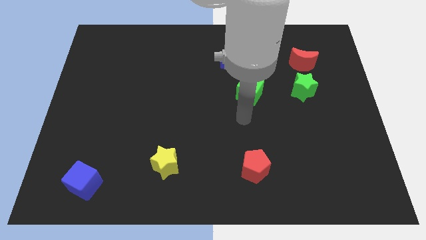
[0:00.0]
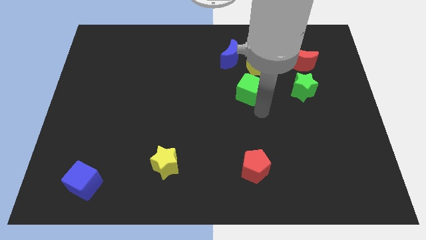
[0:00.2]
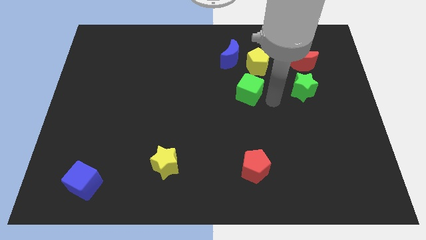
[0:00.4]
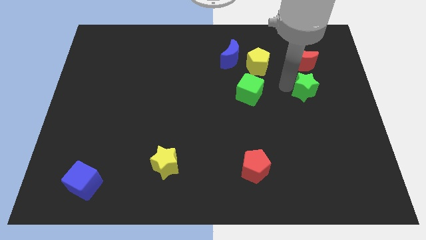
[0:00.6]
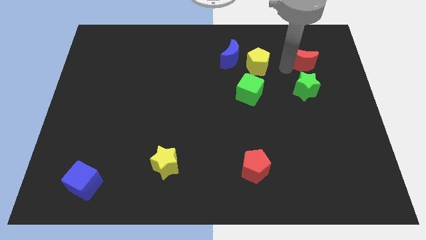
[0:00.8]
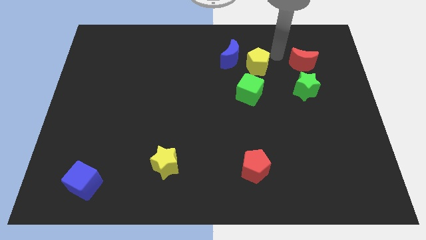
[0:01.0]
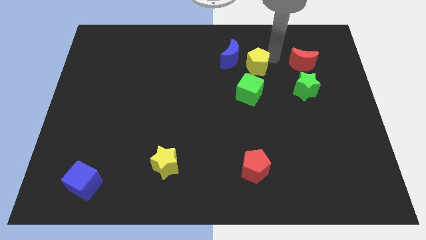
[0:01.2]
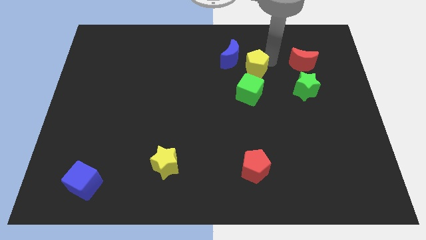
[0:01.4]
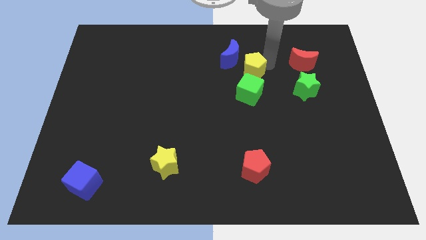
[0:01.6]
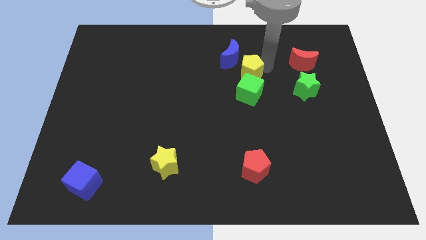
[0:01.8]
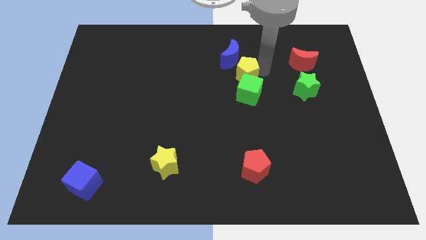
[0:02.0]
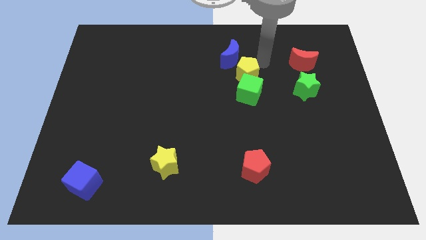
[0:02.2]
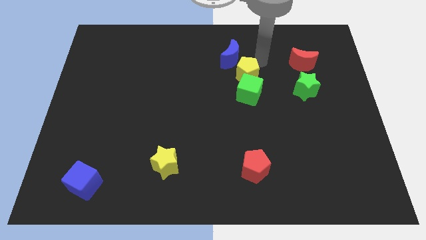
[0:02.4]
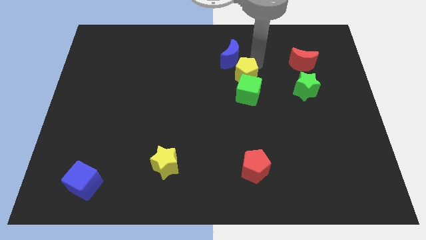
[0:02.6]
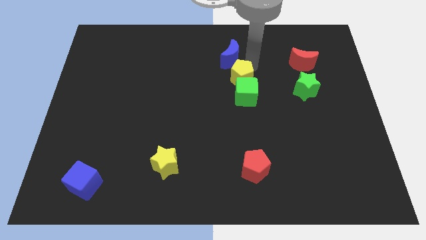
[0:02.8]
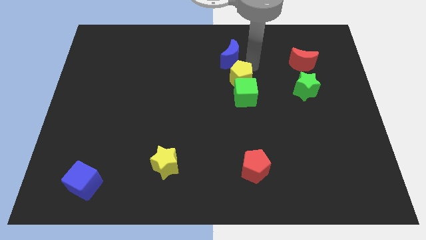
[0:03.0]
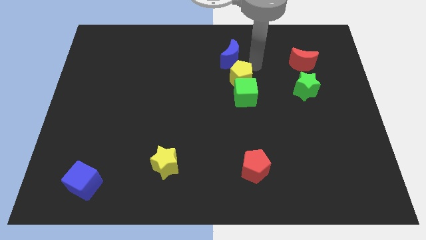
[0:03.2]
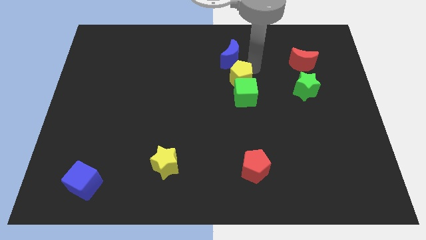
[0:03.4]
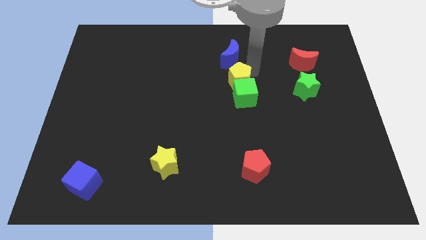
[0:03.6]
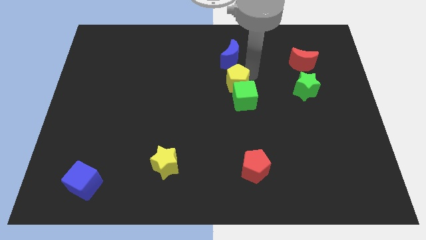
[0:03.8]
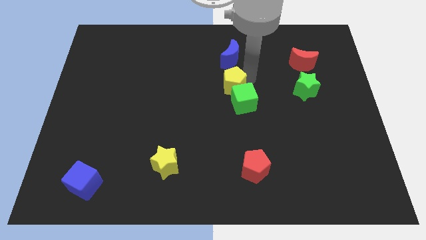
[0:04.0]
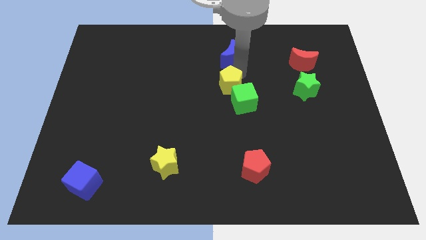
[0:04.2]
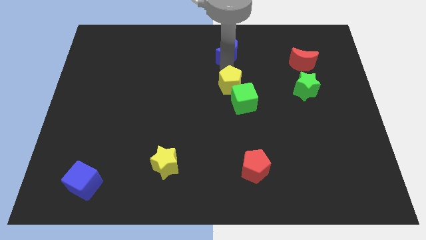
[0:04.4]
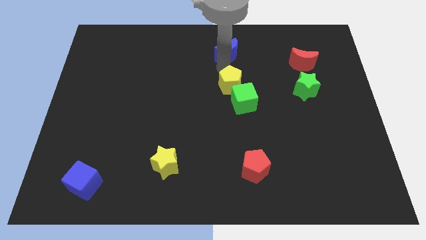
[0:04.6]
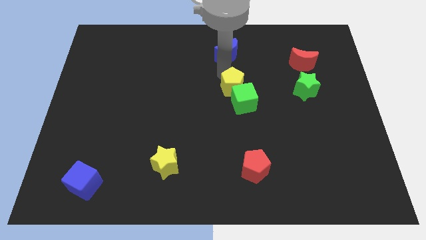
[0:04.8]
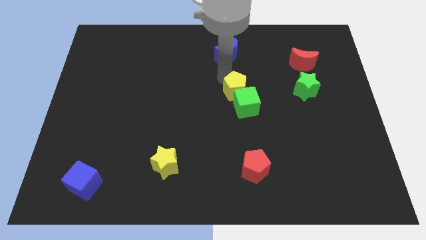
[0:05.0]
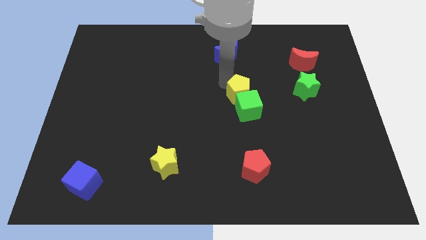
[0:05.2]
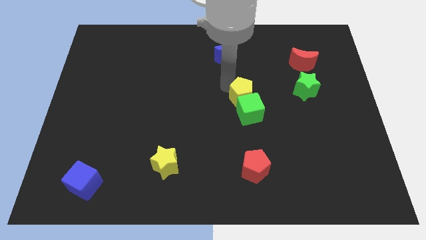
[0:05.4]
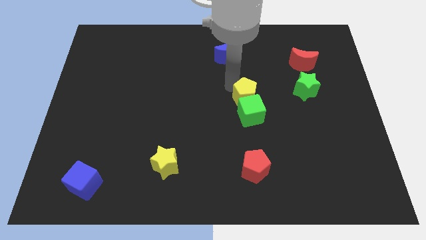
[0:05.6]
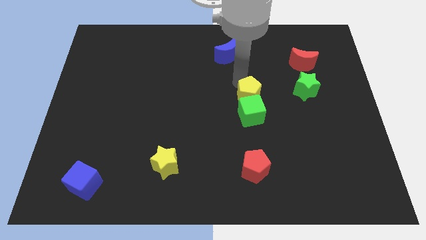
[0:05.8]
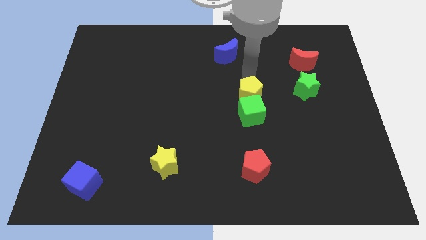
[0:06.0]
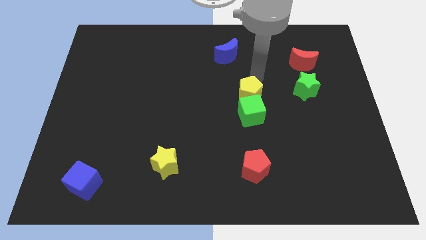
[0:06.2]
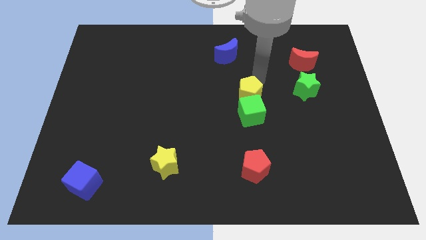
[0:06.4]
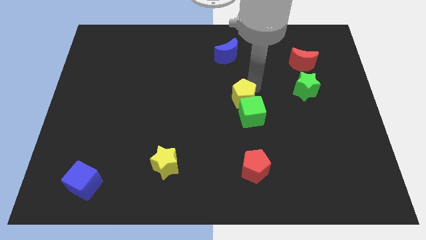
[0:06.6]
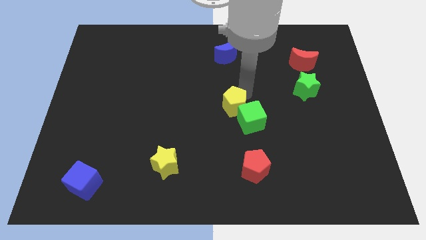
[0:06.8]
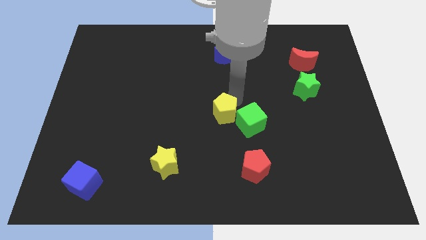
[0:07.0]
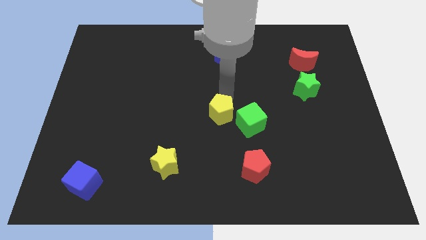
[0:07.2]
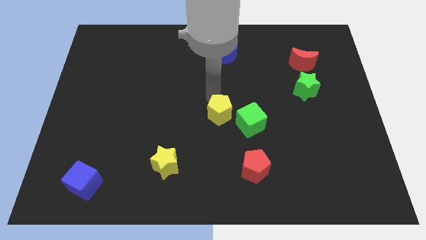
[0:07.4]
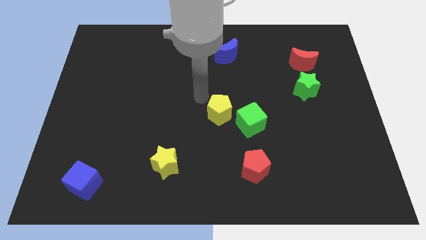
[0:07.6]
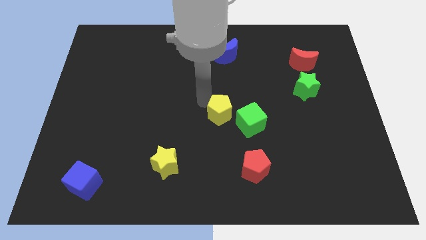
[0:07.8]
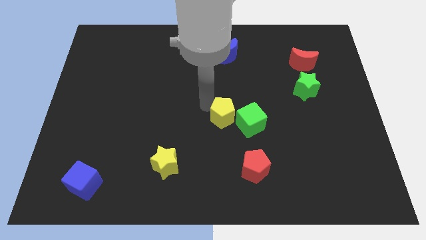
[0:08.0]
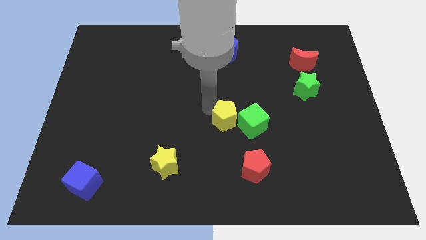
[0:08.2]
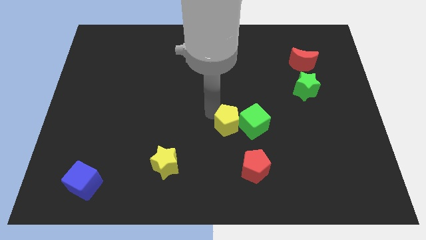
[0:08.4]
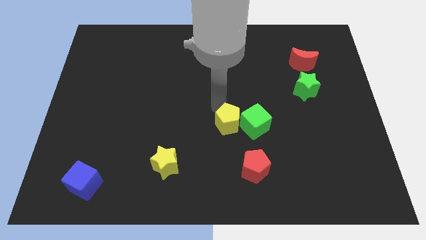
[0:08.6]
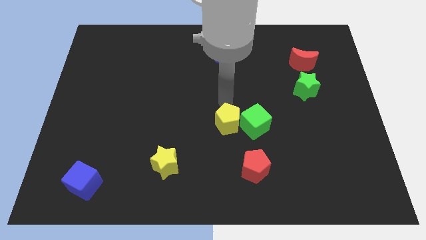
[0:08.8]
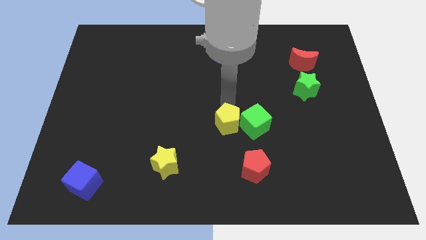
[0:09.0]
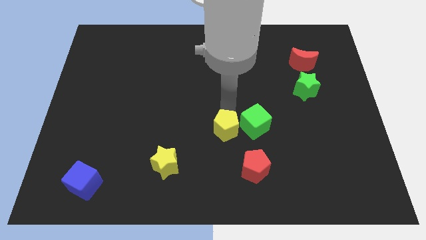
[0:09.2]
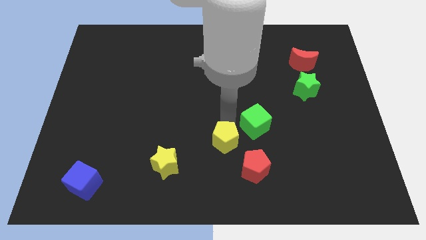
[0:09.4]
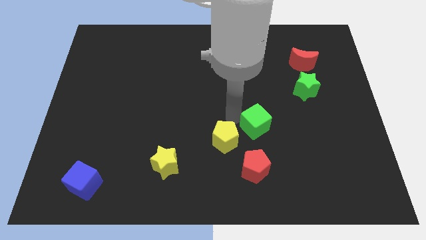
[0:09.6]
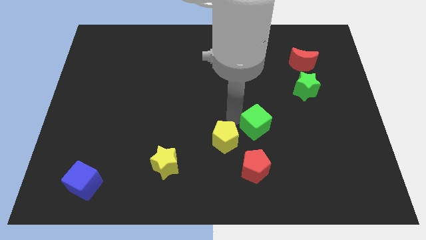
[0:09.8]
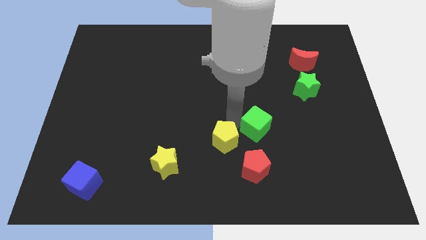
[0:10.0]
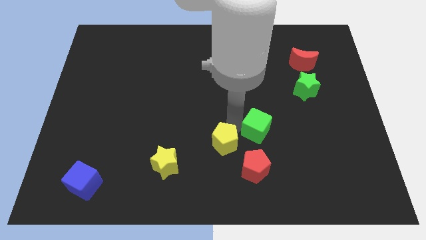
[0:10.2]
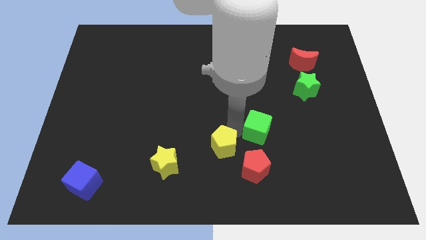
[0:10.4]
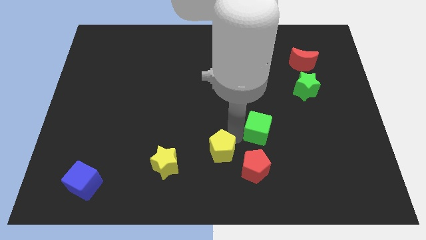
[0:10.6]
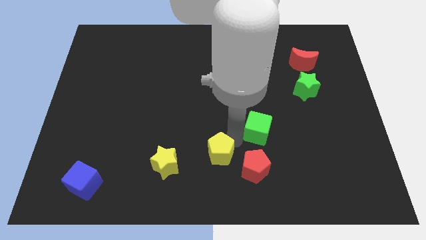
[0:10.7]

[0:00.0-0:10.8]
put the yellow pentagon to the bottom
